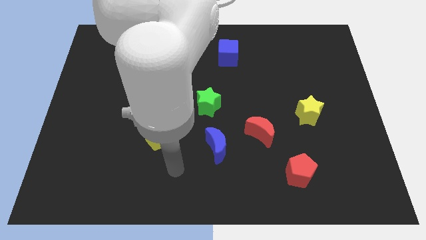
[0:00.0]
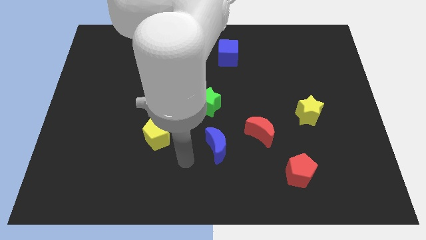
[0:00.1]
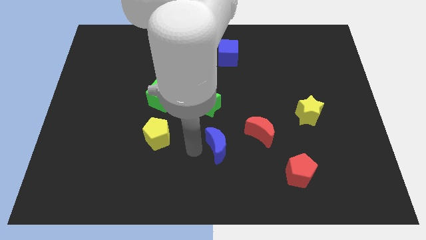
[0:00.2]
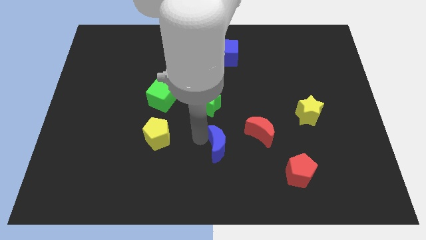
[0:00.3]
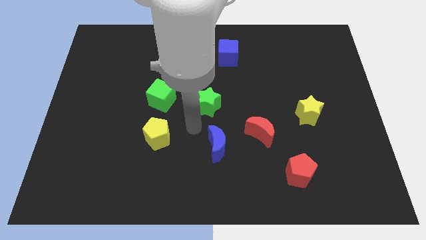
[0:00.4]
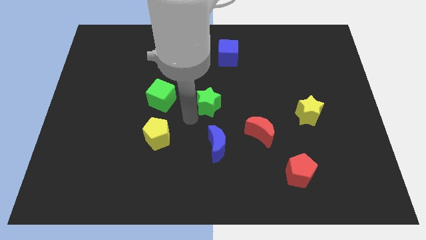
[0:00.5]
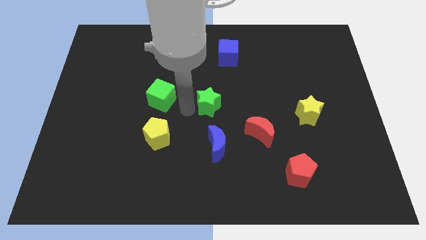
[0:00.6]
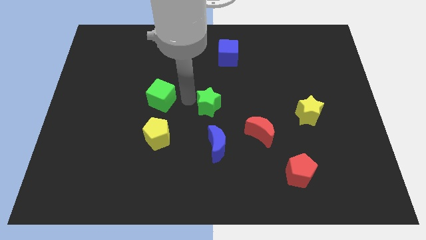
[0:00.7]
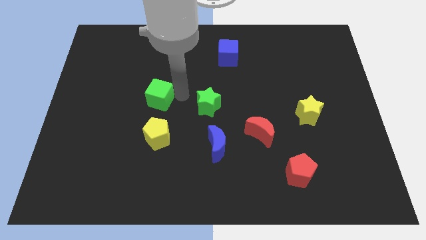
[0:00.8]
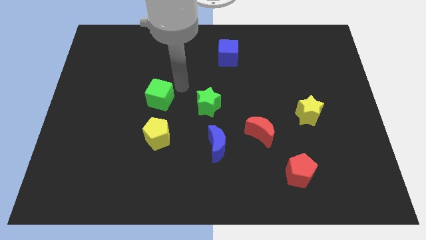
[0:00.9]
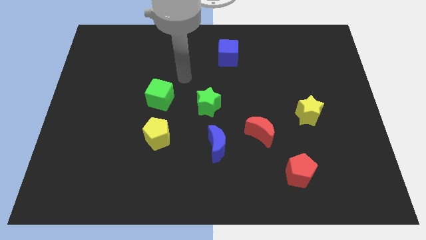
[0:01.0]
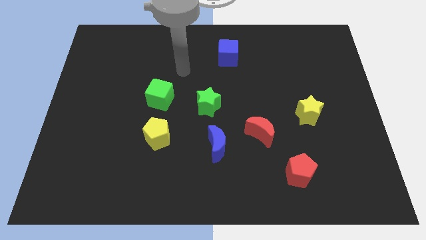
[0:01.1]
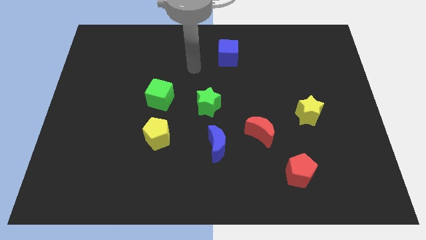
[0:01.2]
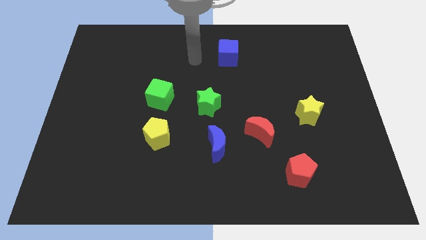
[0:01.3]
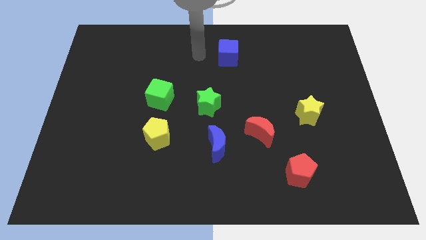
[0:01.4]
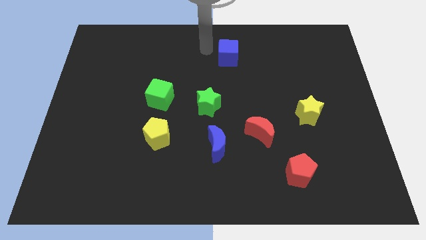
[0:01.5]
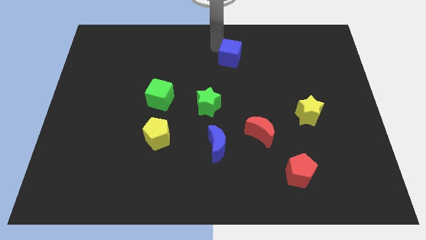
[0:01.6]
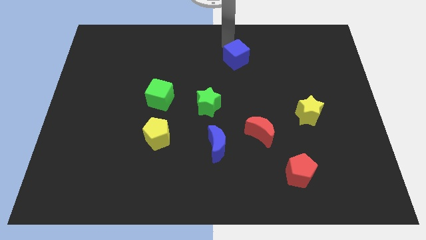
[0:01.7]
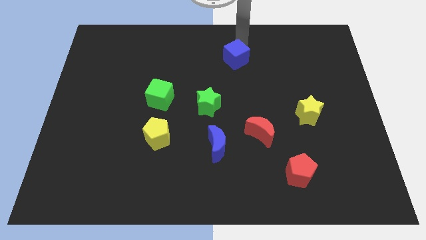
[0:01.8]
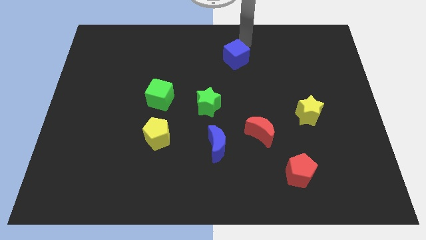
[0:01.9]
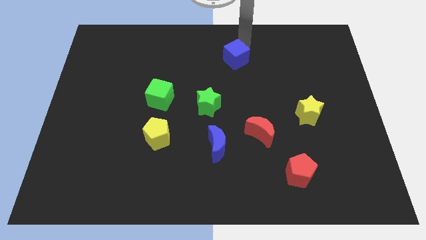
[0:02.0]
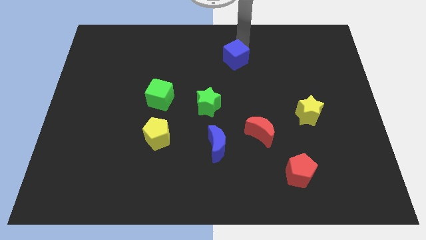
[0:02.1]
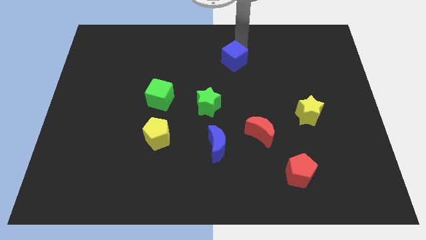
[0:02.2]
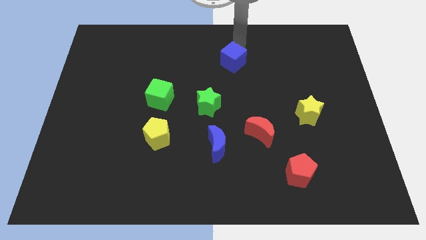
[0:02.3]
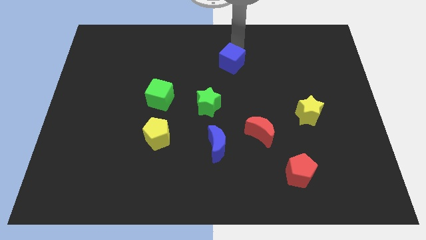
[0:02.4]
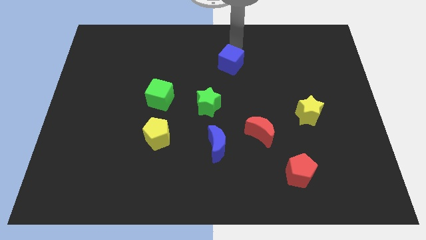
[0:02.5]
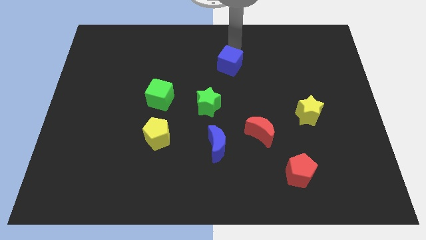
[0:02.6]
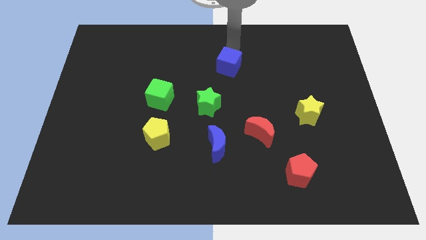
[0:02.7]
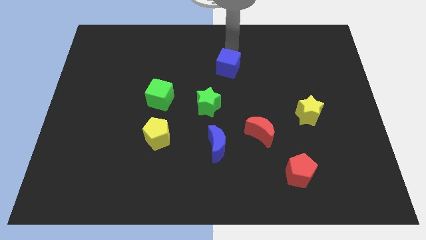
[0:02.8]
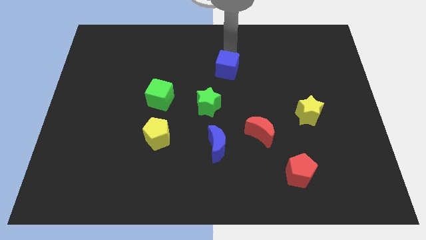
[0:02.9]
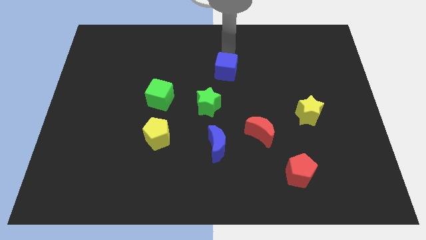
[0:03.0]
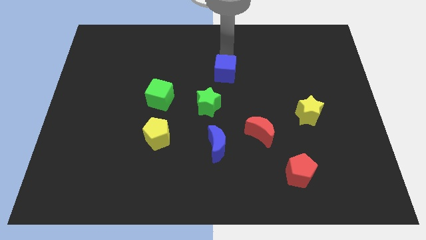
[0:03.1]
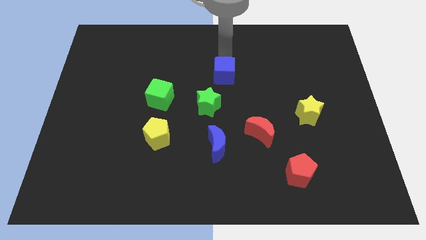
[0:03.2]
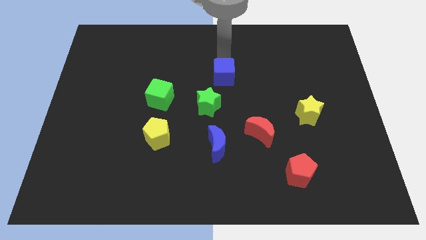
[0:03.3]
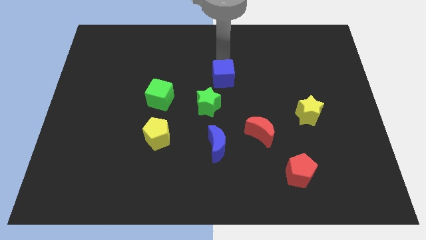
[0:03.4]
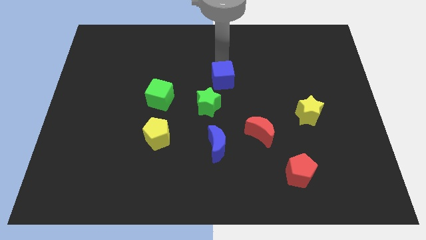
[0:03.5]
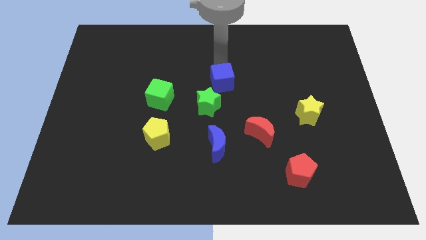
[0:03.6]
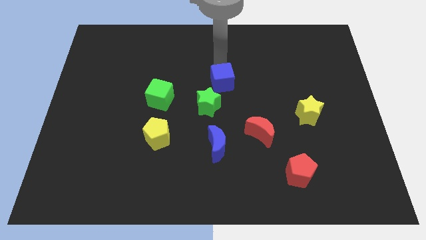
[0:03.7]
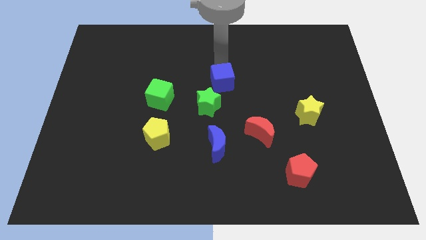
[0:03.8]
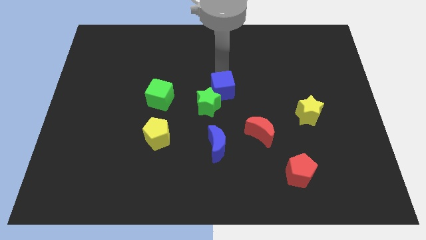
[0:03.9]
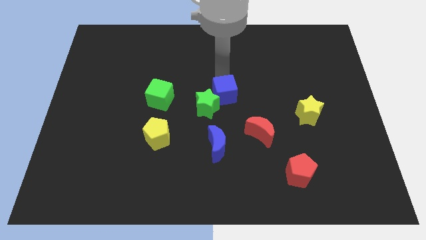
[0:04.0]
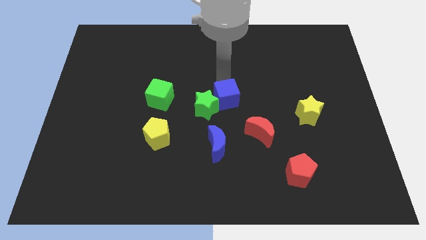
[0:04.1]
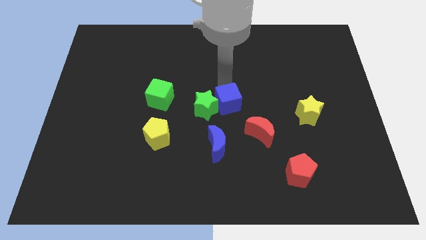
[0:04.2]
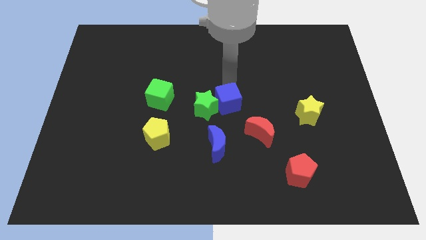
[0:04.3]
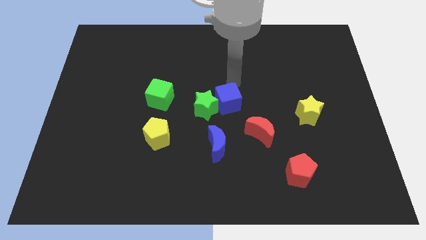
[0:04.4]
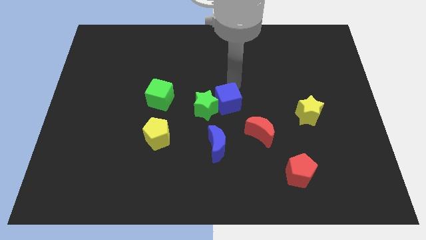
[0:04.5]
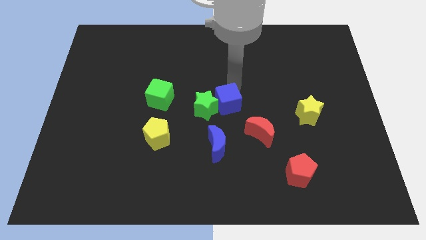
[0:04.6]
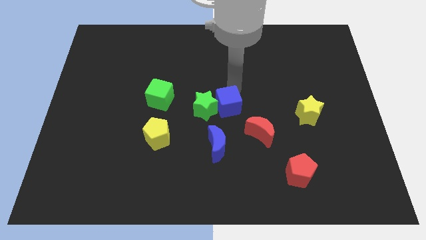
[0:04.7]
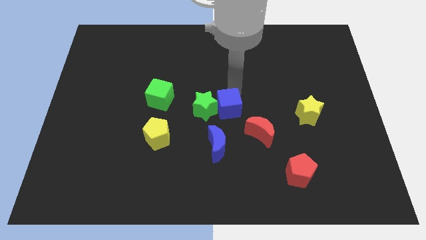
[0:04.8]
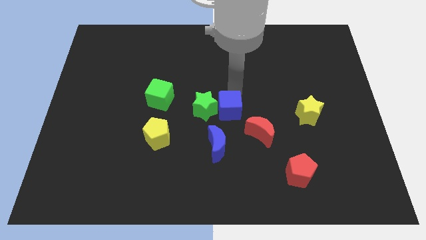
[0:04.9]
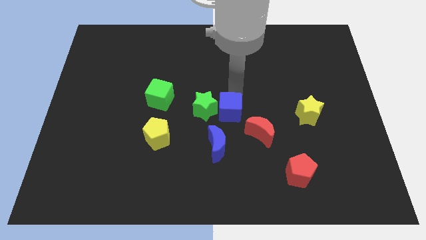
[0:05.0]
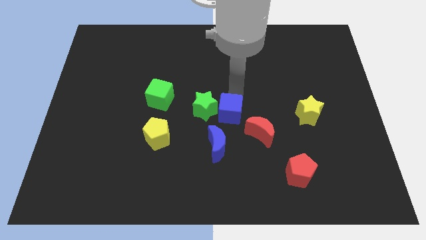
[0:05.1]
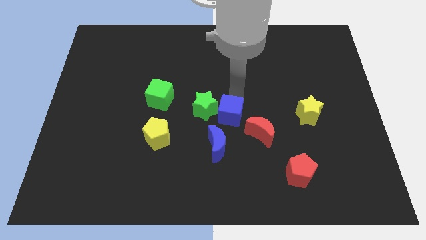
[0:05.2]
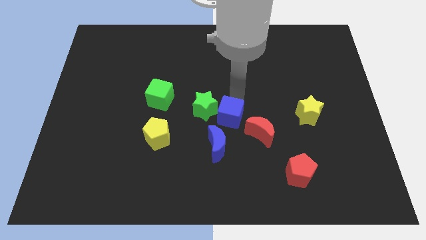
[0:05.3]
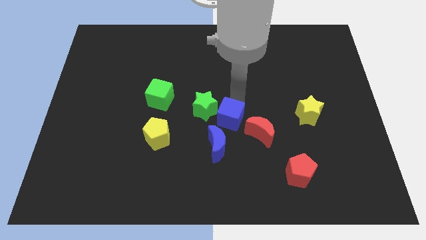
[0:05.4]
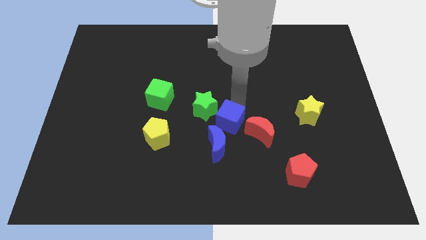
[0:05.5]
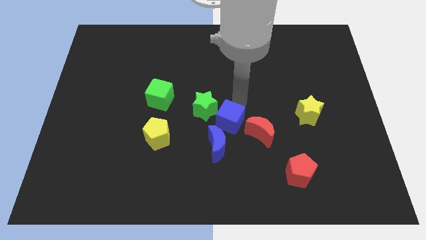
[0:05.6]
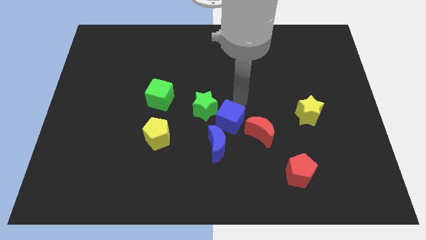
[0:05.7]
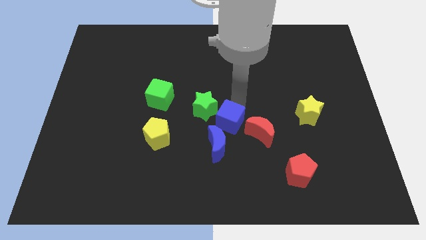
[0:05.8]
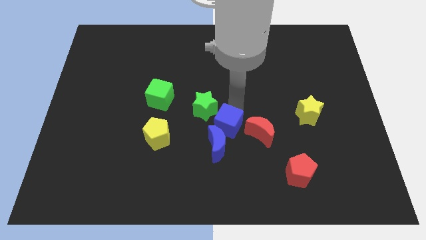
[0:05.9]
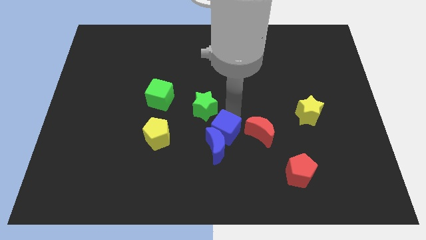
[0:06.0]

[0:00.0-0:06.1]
put the blue cube towards the blue moon

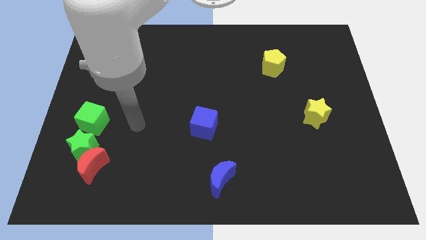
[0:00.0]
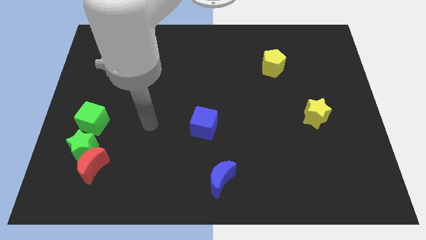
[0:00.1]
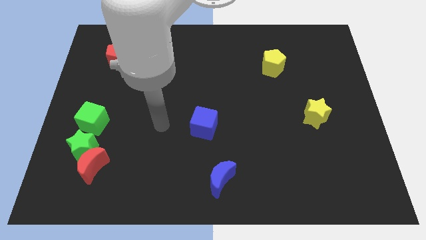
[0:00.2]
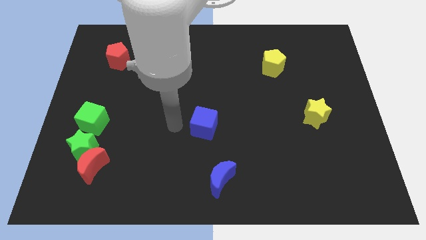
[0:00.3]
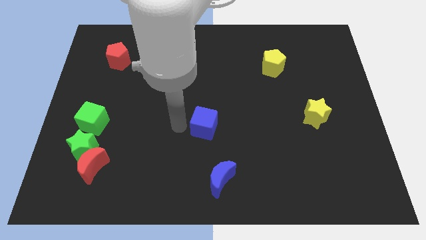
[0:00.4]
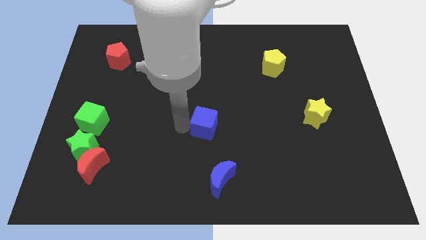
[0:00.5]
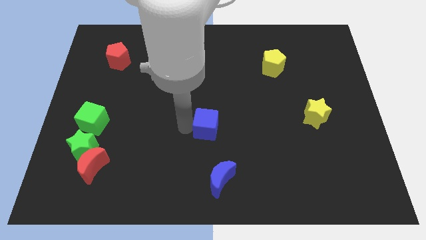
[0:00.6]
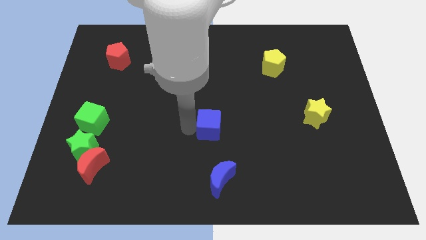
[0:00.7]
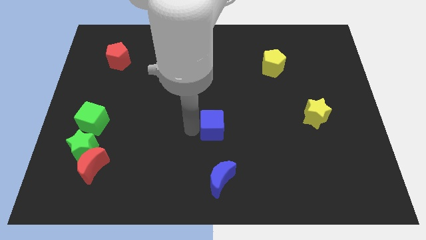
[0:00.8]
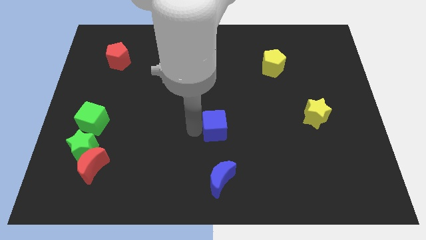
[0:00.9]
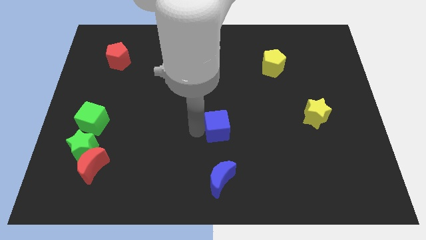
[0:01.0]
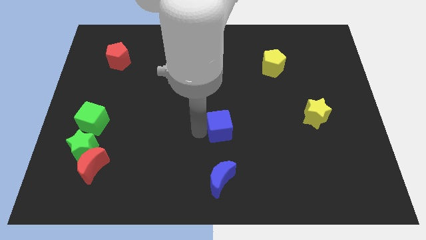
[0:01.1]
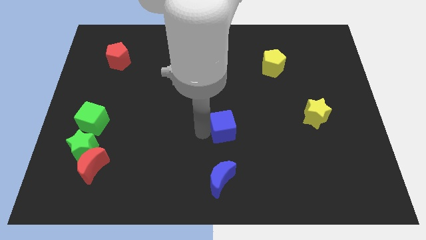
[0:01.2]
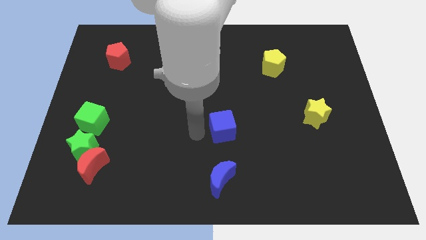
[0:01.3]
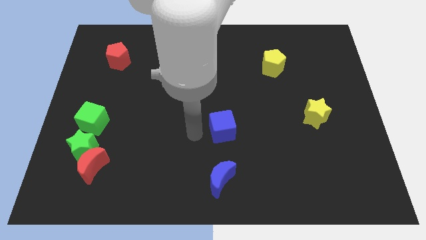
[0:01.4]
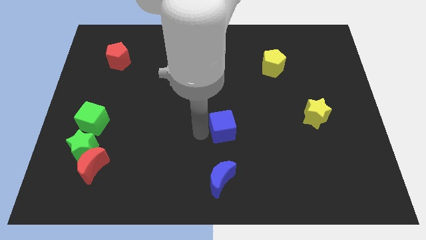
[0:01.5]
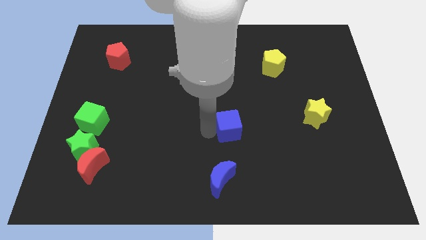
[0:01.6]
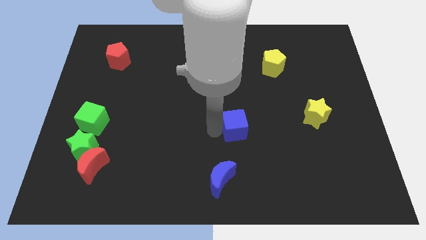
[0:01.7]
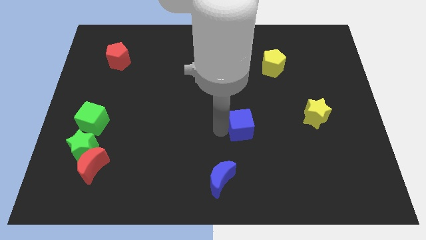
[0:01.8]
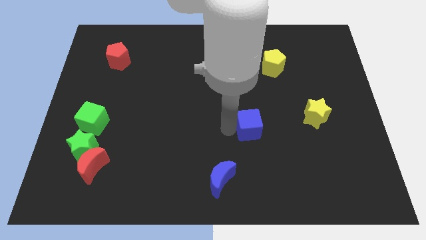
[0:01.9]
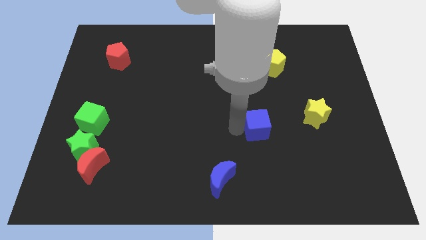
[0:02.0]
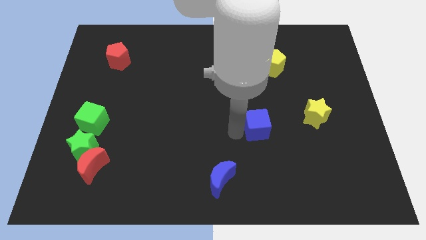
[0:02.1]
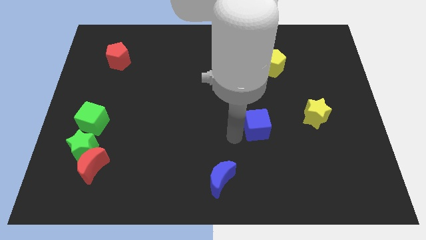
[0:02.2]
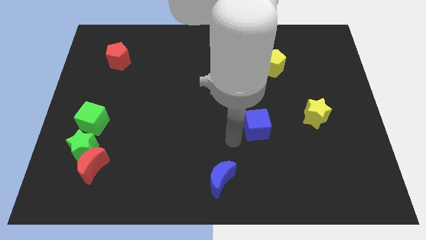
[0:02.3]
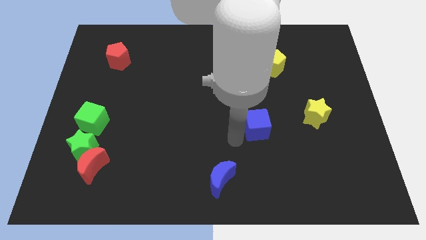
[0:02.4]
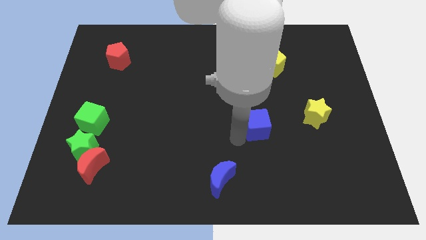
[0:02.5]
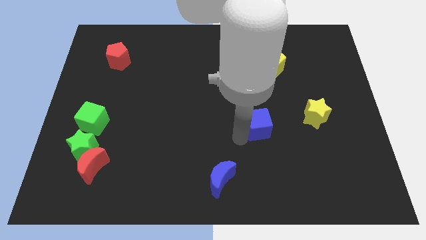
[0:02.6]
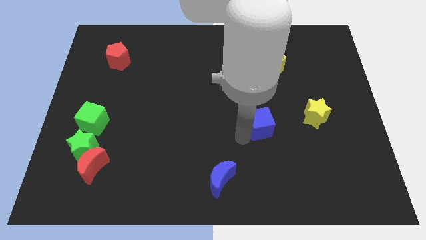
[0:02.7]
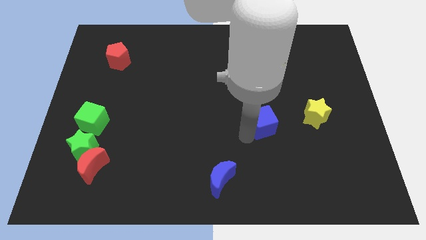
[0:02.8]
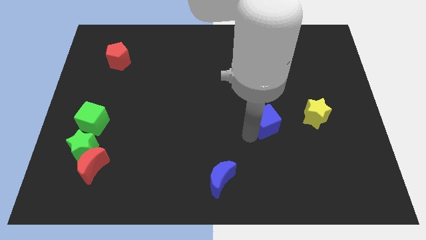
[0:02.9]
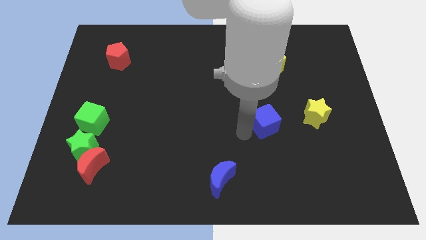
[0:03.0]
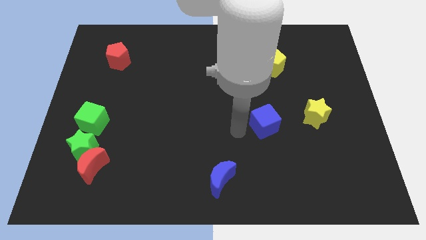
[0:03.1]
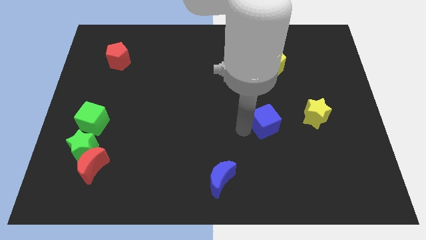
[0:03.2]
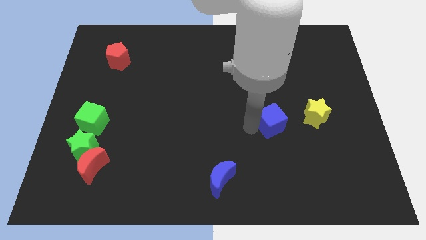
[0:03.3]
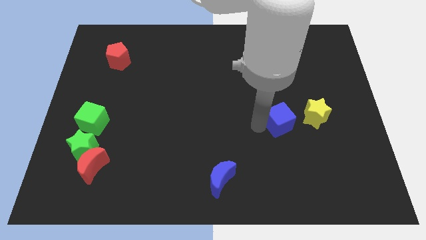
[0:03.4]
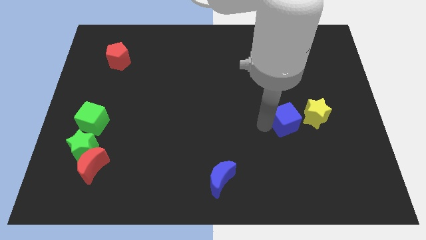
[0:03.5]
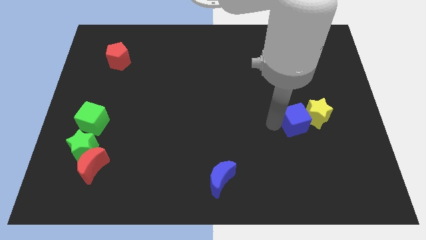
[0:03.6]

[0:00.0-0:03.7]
put the blue cube close to the yellow star
